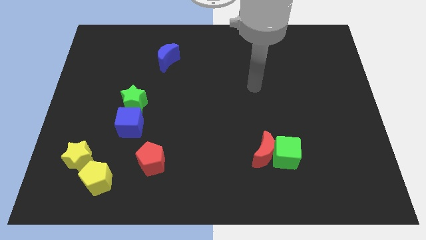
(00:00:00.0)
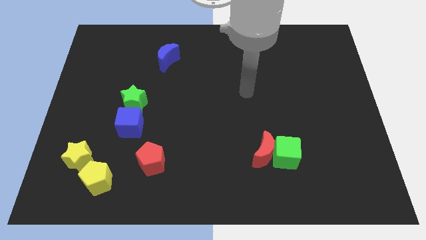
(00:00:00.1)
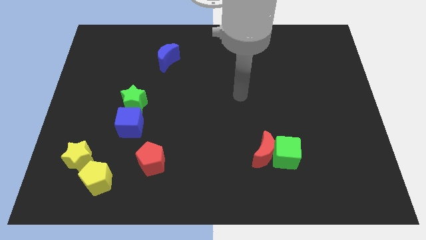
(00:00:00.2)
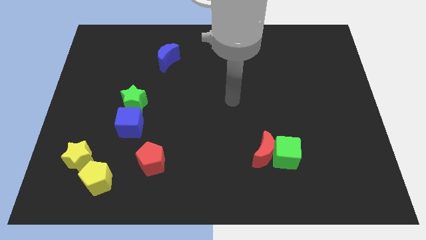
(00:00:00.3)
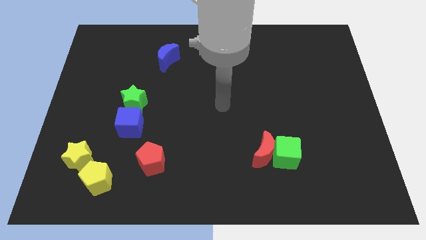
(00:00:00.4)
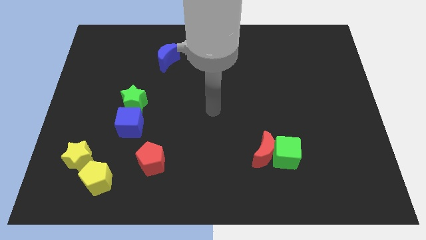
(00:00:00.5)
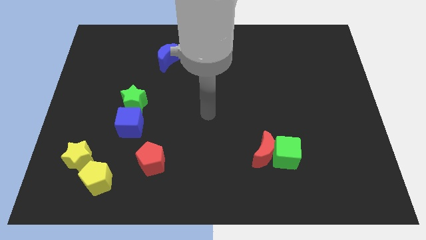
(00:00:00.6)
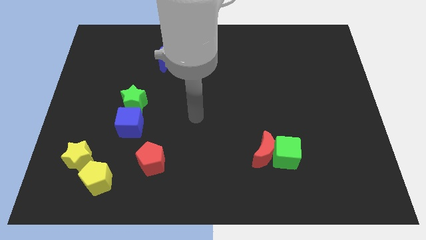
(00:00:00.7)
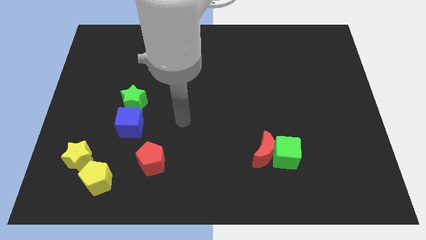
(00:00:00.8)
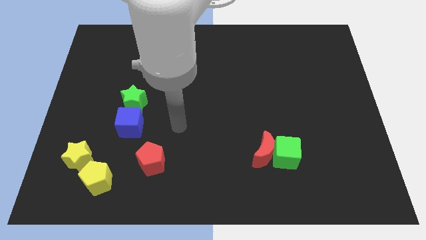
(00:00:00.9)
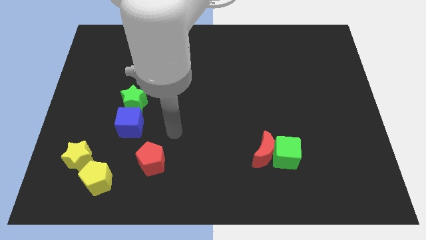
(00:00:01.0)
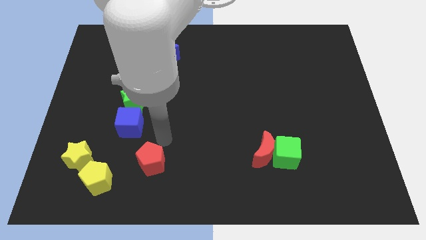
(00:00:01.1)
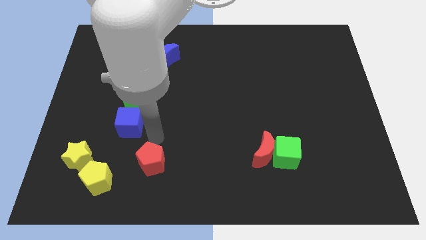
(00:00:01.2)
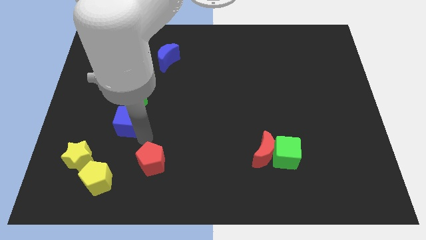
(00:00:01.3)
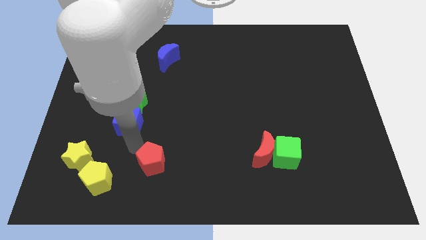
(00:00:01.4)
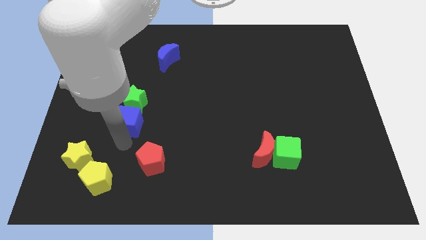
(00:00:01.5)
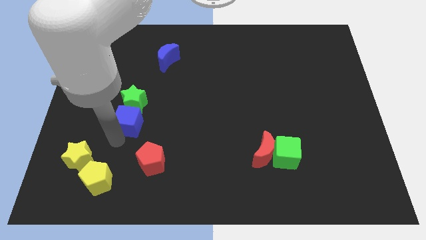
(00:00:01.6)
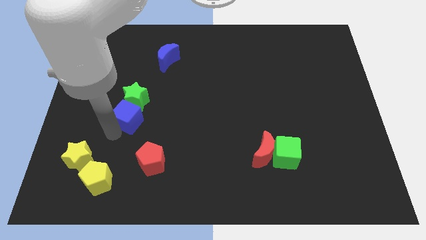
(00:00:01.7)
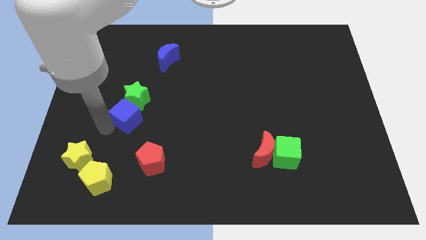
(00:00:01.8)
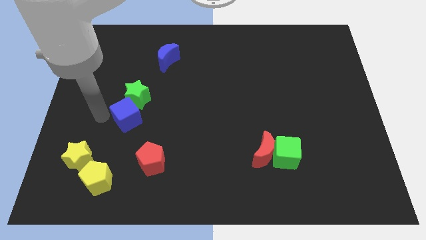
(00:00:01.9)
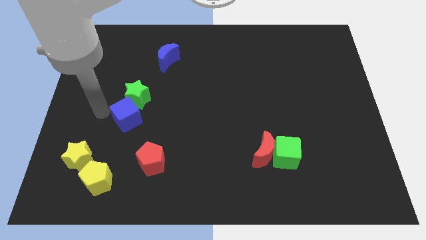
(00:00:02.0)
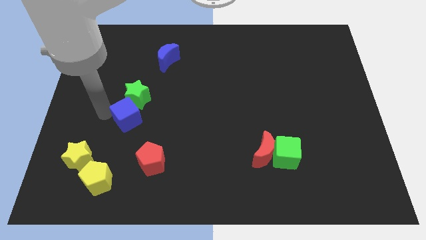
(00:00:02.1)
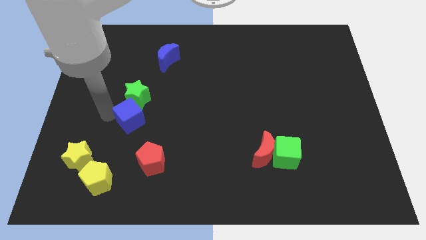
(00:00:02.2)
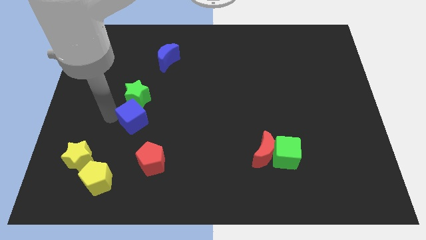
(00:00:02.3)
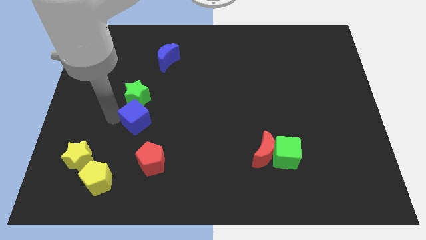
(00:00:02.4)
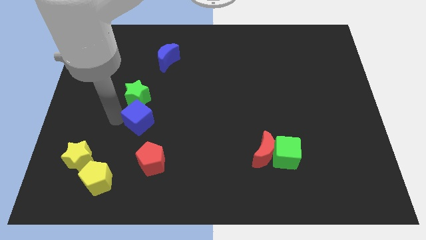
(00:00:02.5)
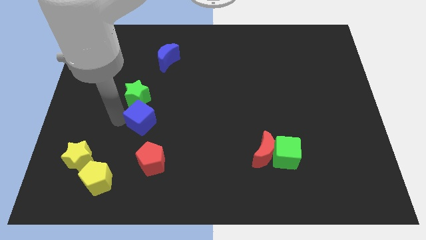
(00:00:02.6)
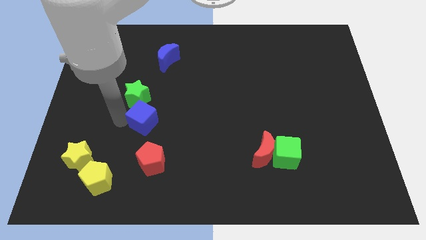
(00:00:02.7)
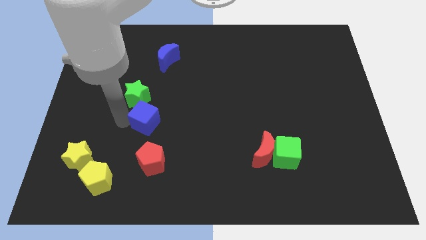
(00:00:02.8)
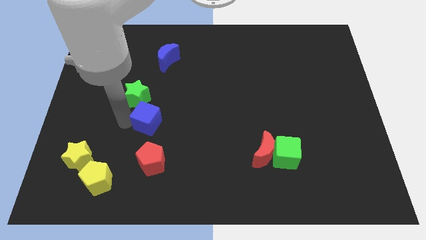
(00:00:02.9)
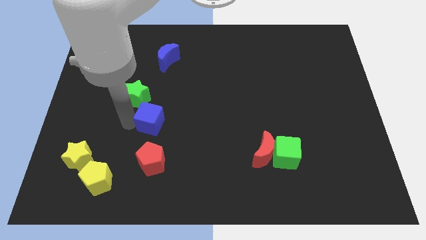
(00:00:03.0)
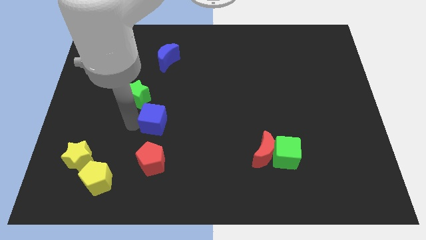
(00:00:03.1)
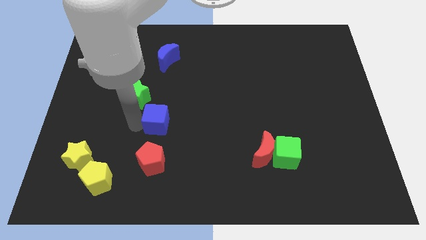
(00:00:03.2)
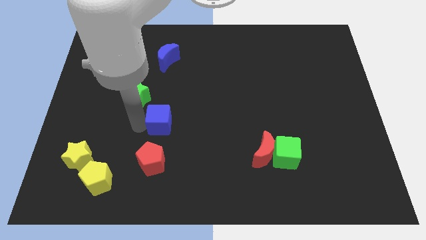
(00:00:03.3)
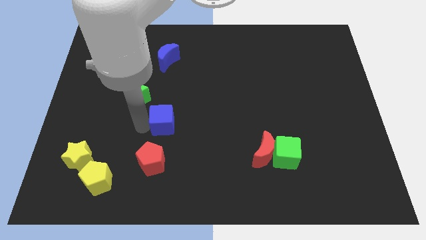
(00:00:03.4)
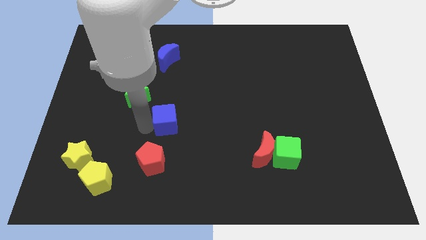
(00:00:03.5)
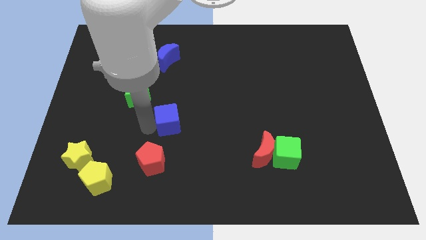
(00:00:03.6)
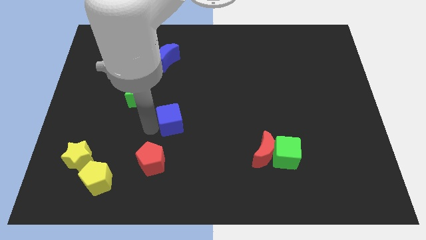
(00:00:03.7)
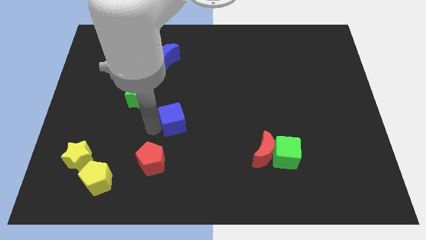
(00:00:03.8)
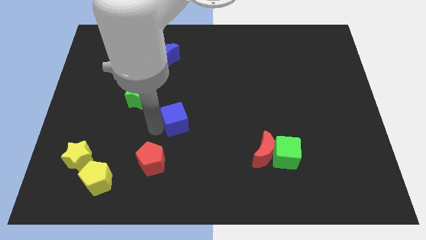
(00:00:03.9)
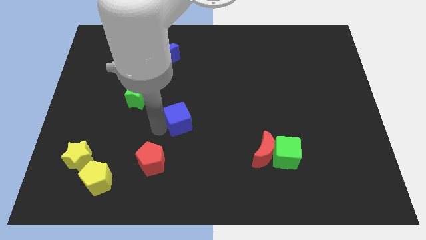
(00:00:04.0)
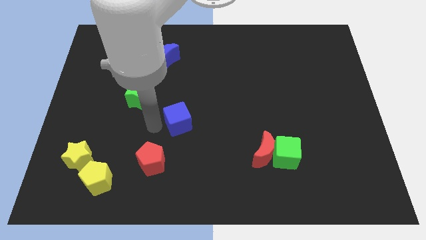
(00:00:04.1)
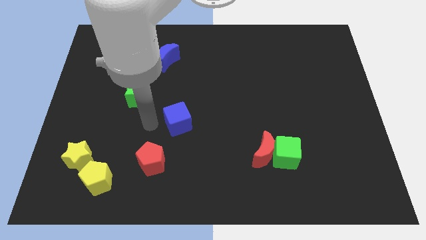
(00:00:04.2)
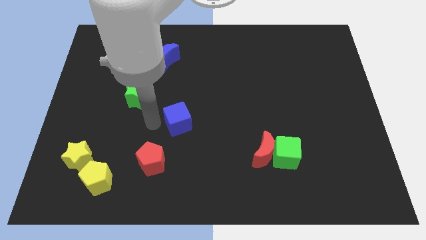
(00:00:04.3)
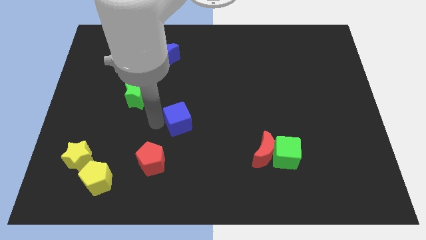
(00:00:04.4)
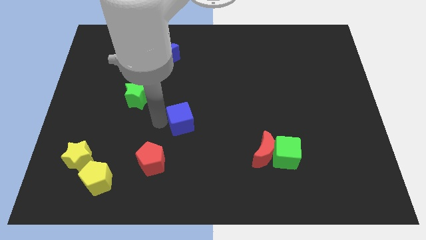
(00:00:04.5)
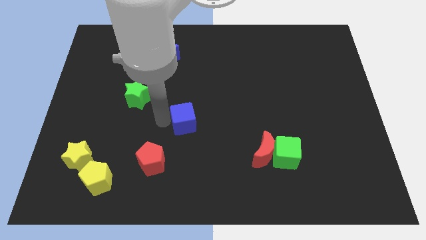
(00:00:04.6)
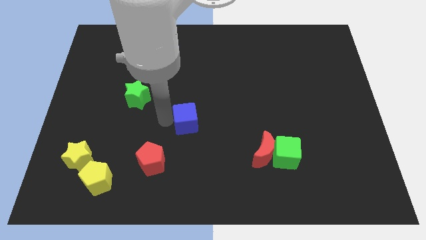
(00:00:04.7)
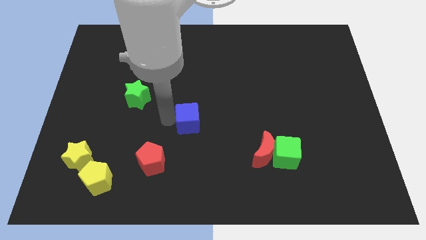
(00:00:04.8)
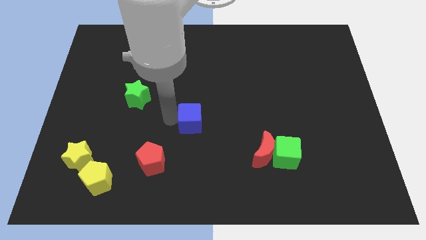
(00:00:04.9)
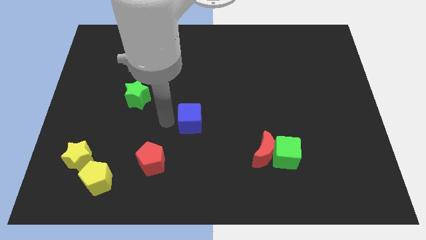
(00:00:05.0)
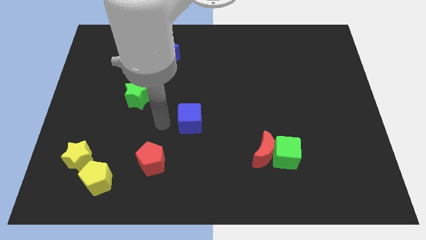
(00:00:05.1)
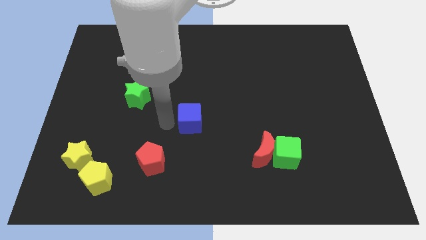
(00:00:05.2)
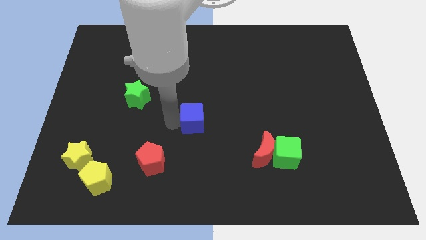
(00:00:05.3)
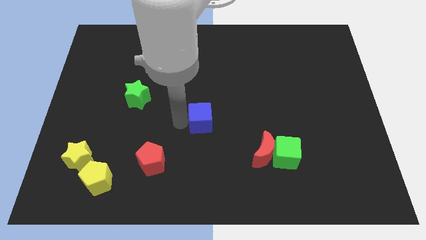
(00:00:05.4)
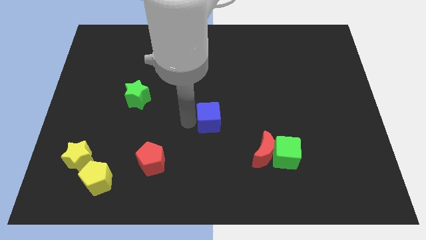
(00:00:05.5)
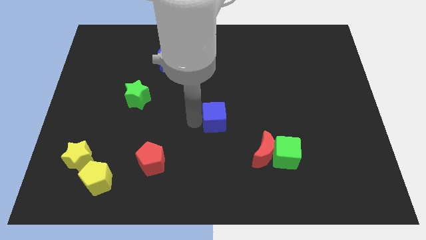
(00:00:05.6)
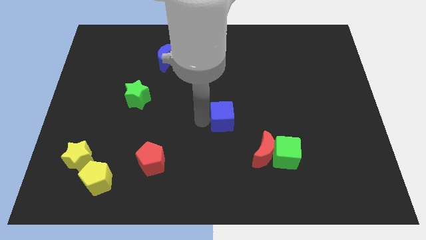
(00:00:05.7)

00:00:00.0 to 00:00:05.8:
push the blue cube to the right

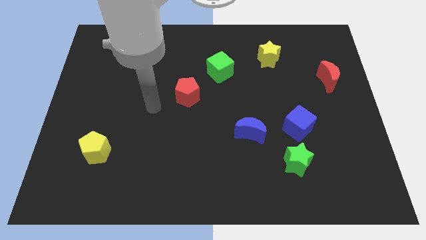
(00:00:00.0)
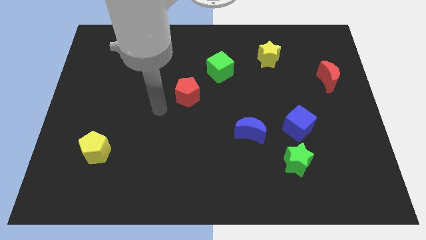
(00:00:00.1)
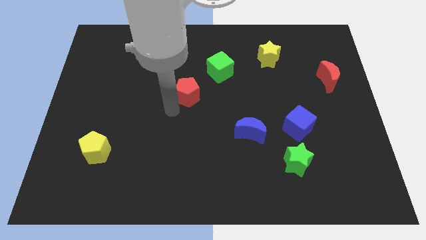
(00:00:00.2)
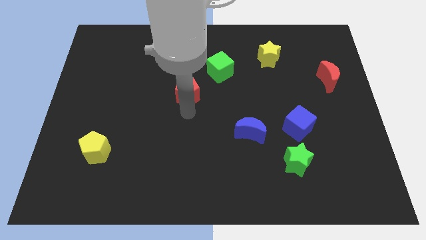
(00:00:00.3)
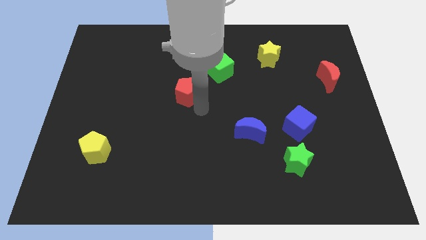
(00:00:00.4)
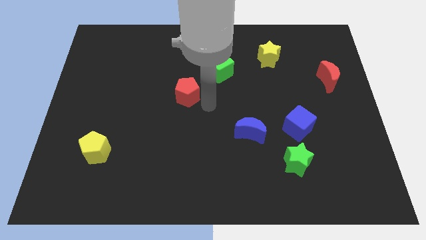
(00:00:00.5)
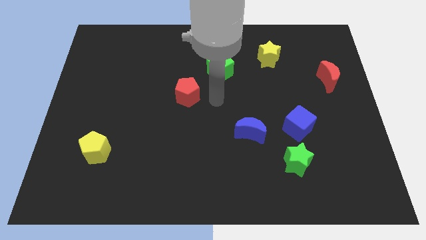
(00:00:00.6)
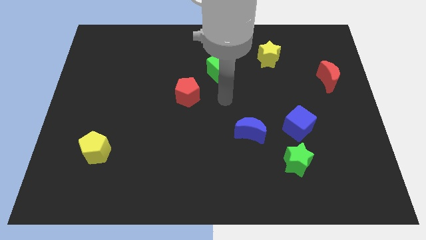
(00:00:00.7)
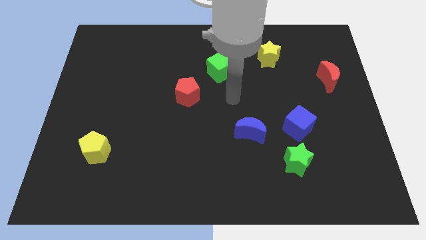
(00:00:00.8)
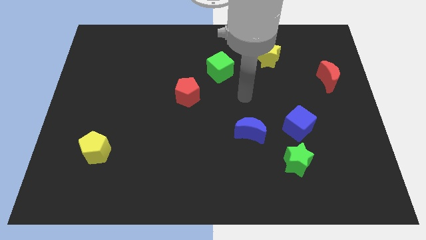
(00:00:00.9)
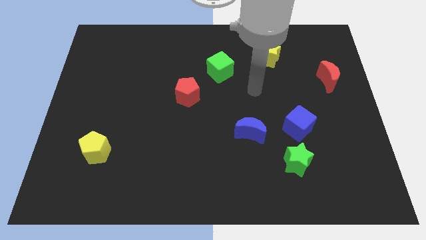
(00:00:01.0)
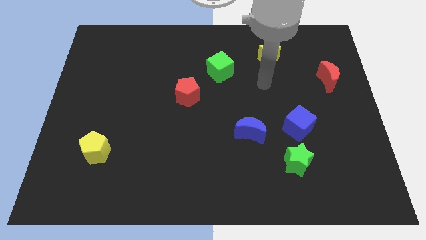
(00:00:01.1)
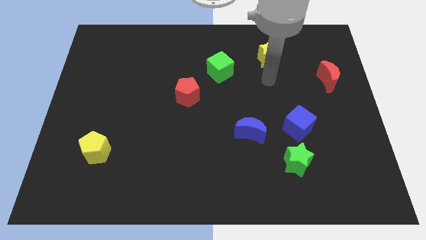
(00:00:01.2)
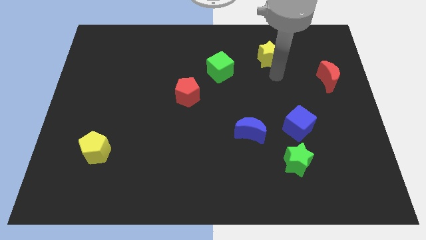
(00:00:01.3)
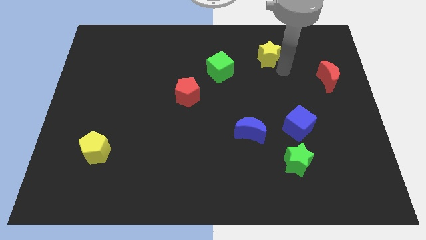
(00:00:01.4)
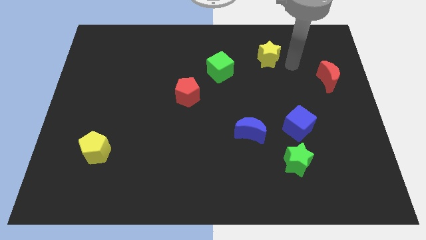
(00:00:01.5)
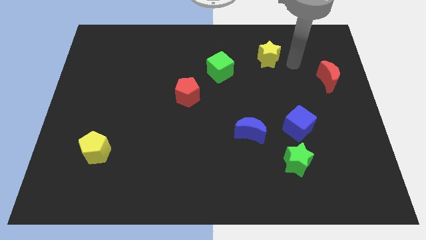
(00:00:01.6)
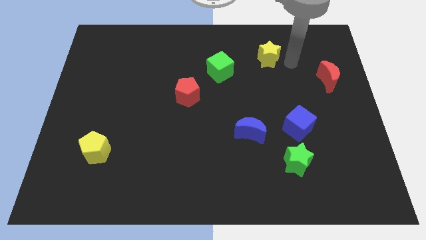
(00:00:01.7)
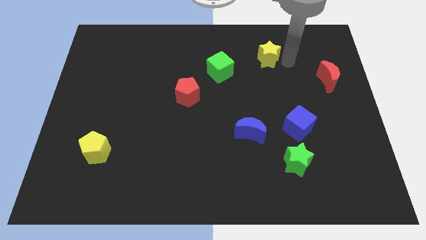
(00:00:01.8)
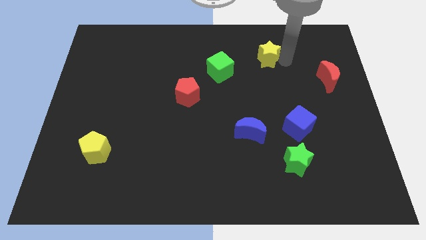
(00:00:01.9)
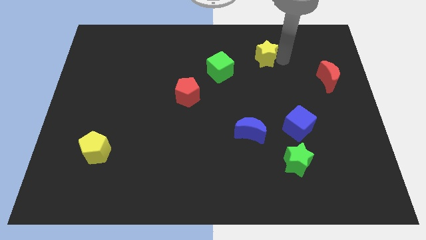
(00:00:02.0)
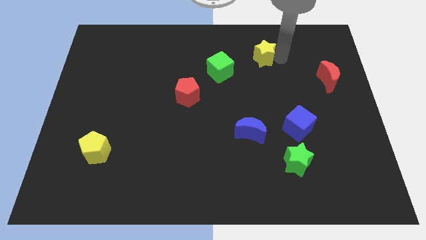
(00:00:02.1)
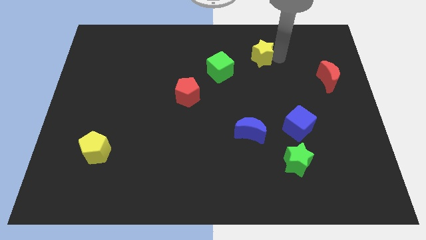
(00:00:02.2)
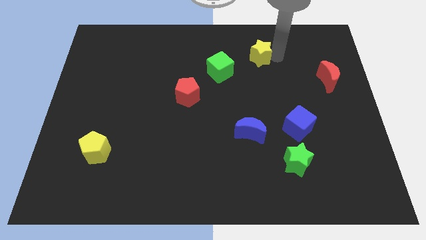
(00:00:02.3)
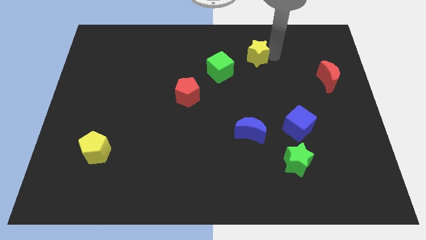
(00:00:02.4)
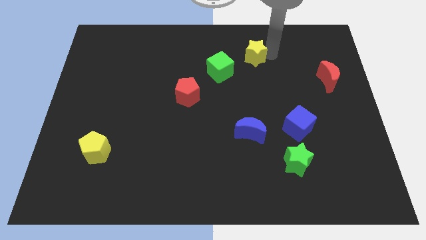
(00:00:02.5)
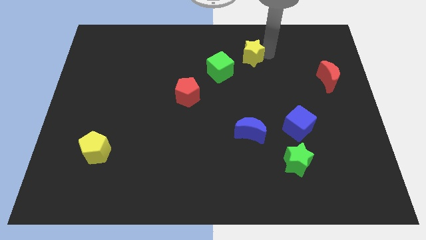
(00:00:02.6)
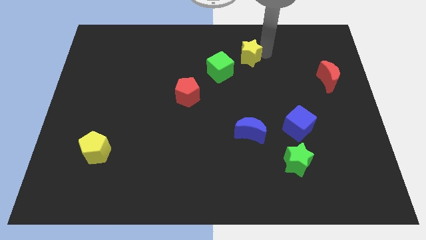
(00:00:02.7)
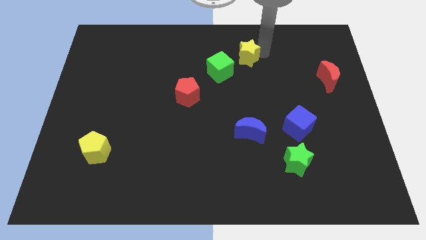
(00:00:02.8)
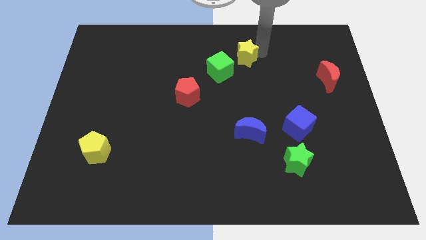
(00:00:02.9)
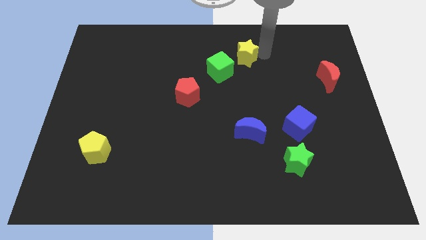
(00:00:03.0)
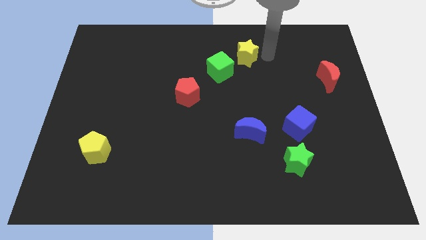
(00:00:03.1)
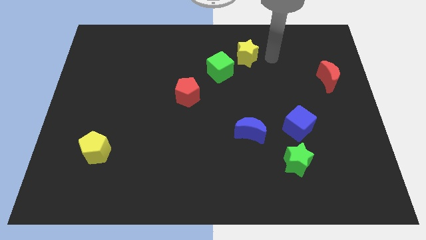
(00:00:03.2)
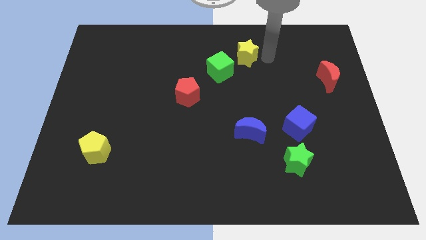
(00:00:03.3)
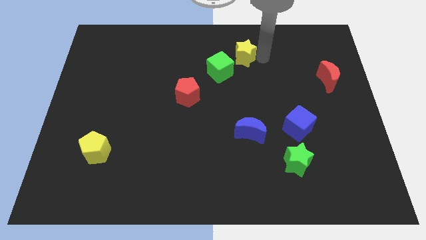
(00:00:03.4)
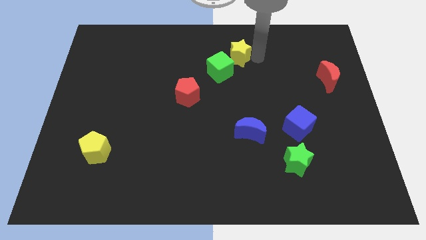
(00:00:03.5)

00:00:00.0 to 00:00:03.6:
move the yellow star left a bit
